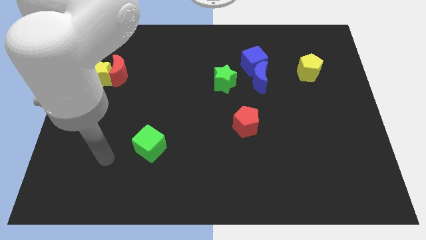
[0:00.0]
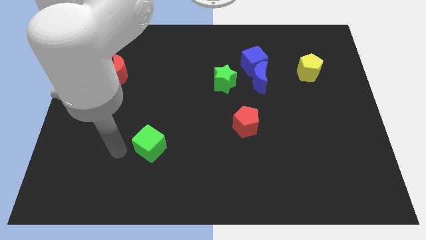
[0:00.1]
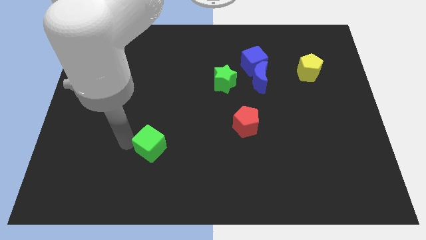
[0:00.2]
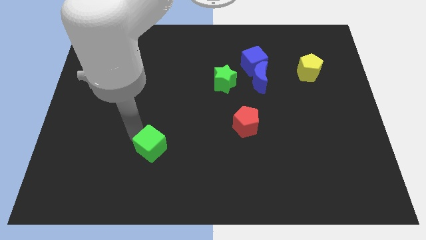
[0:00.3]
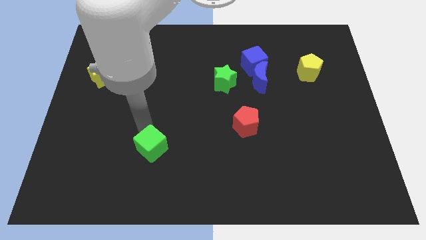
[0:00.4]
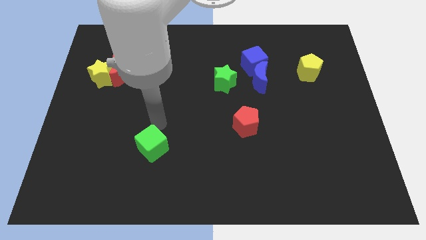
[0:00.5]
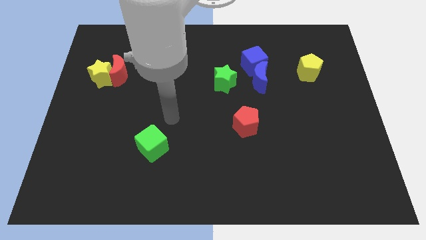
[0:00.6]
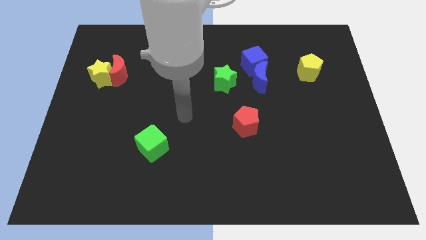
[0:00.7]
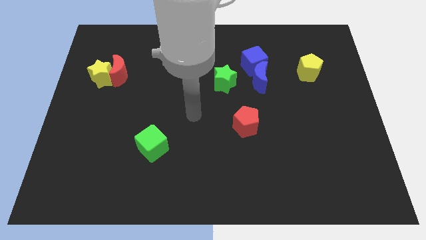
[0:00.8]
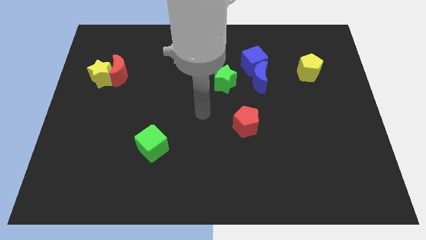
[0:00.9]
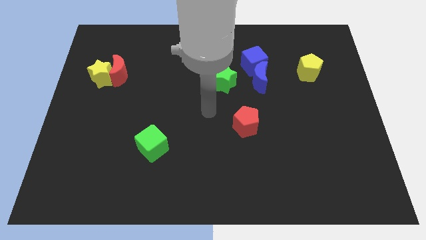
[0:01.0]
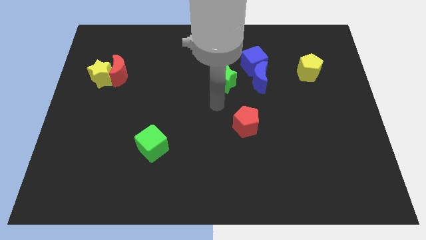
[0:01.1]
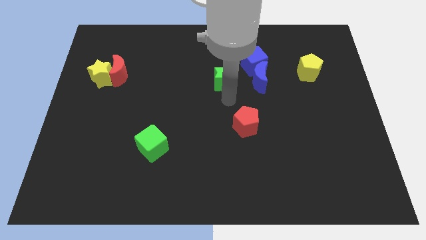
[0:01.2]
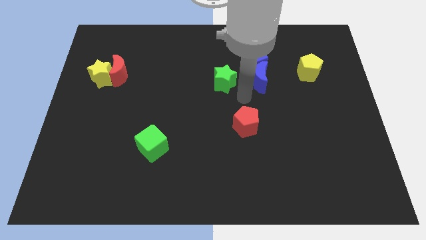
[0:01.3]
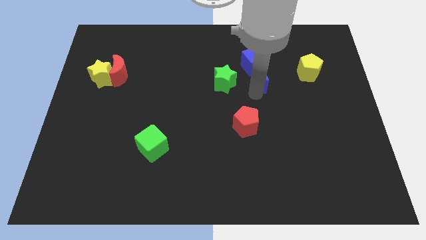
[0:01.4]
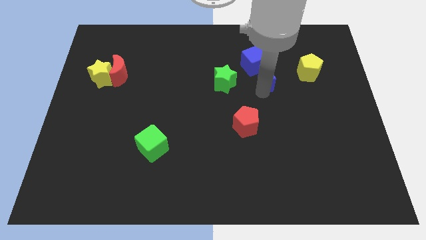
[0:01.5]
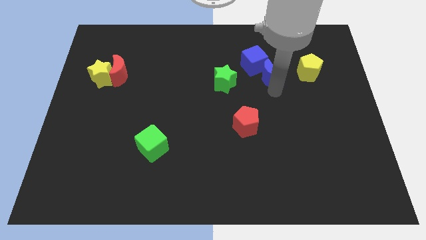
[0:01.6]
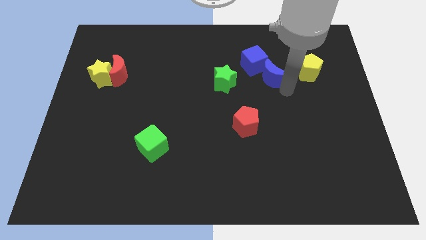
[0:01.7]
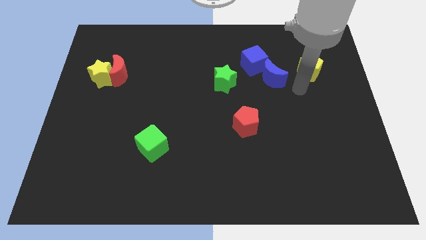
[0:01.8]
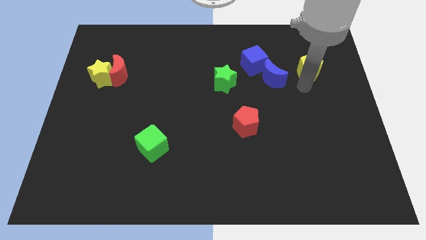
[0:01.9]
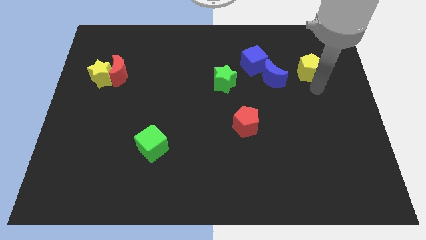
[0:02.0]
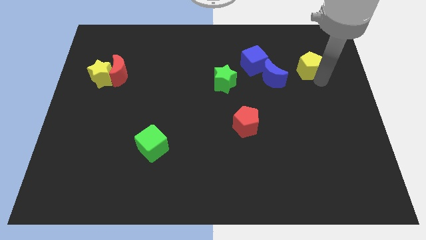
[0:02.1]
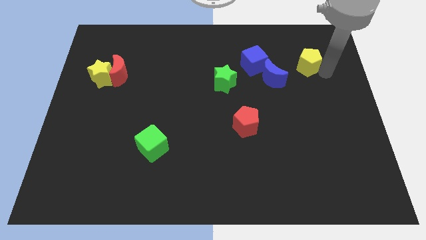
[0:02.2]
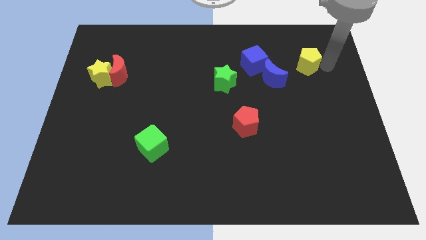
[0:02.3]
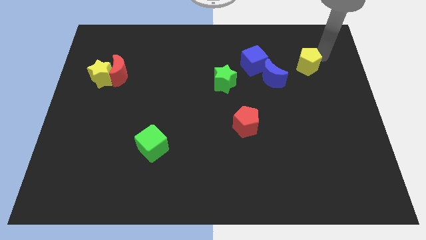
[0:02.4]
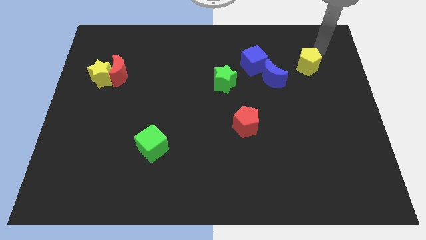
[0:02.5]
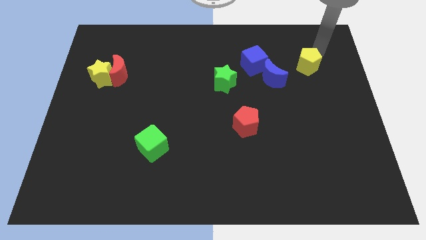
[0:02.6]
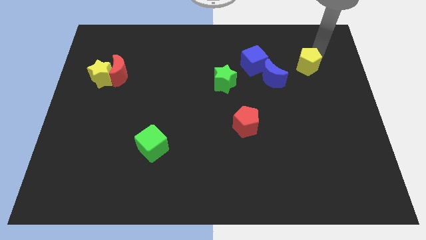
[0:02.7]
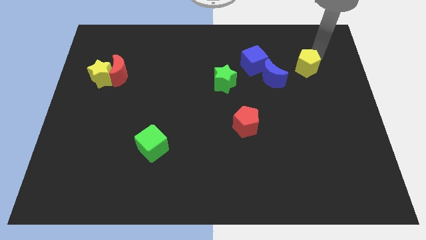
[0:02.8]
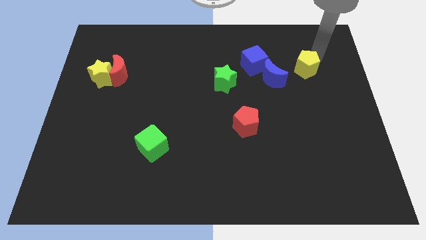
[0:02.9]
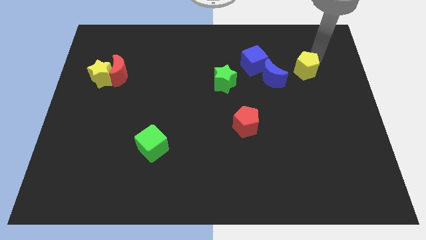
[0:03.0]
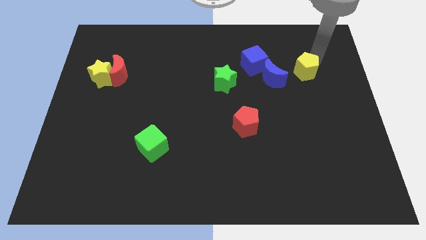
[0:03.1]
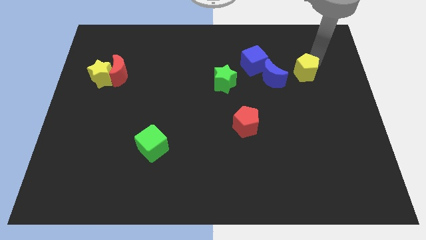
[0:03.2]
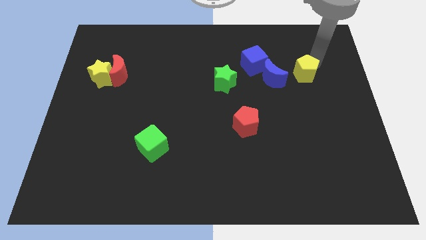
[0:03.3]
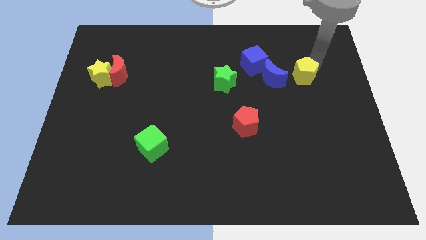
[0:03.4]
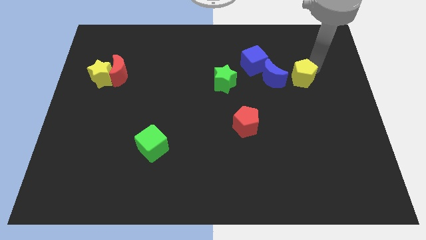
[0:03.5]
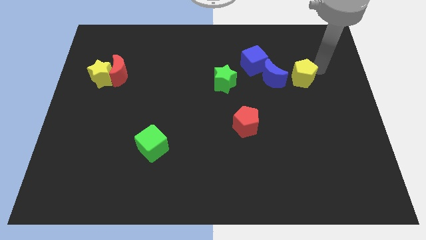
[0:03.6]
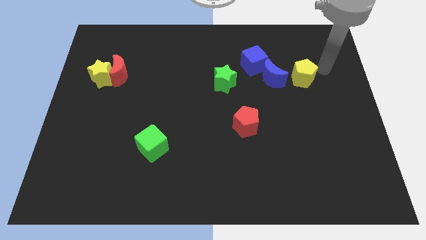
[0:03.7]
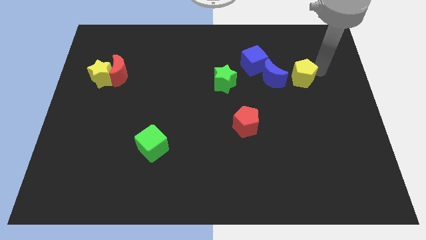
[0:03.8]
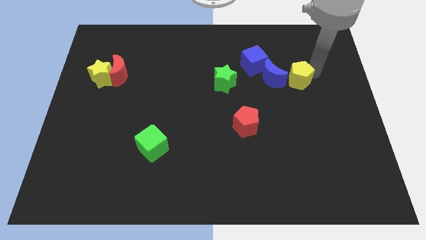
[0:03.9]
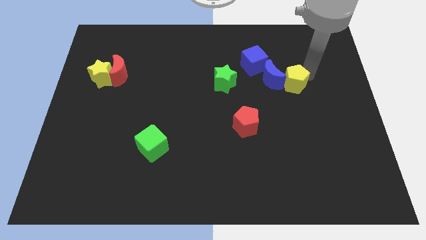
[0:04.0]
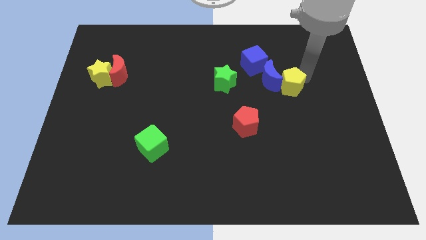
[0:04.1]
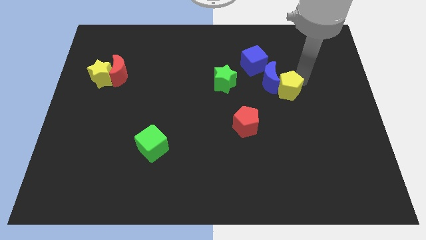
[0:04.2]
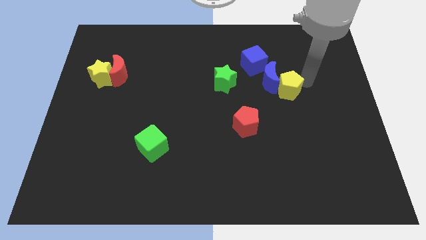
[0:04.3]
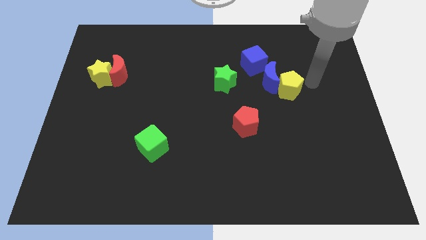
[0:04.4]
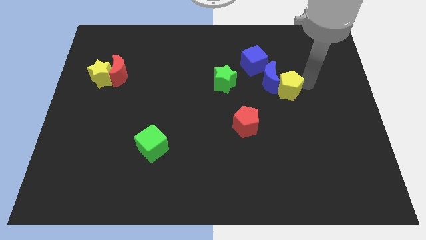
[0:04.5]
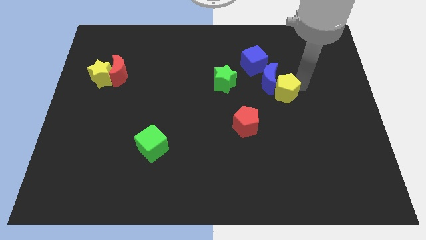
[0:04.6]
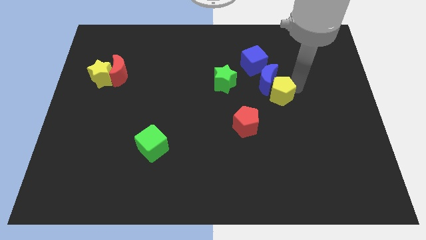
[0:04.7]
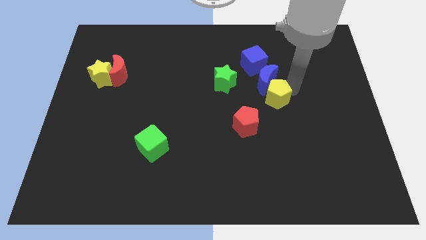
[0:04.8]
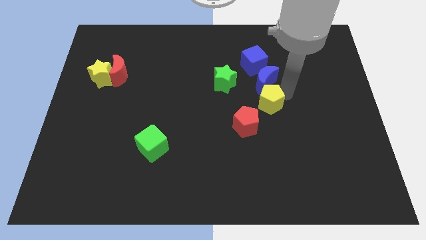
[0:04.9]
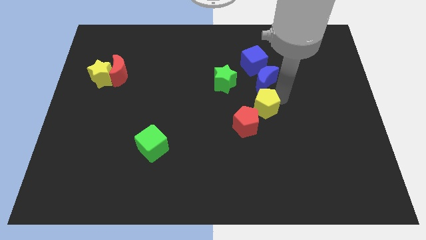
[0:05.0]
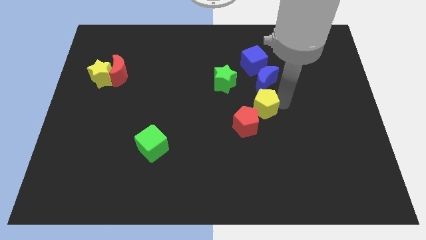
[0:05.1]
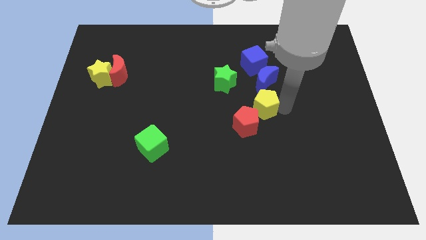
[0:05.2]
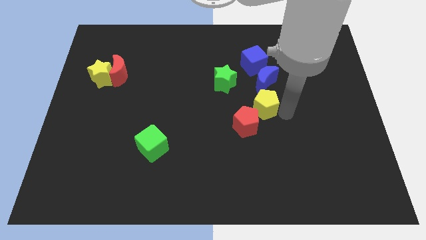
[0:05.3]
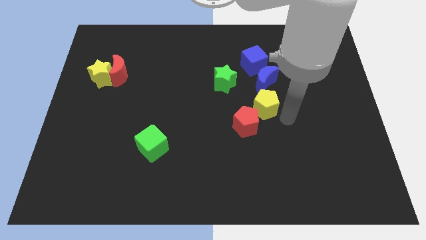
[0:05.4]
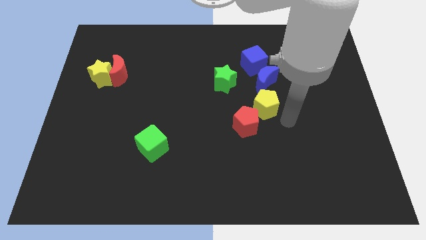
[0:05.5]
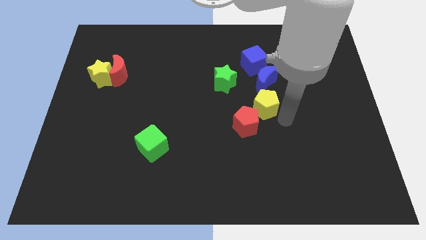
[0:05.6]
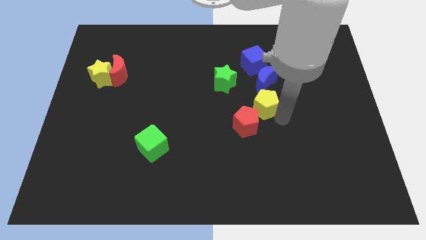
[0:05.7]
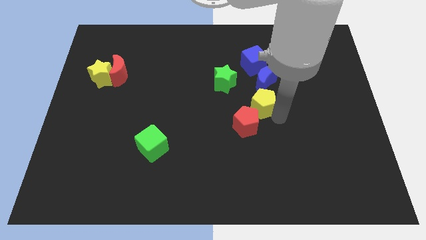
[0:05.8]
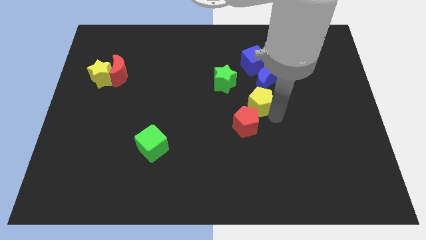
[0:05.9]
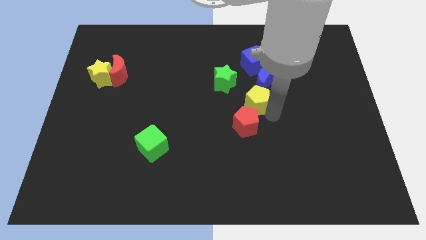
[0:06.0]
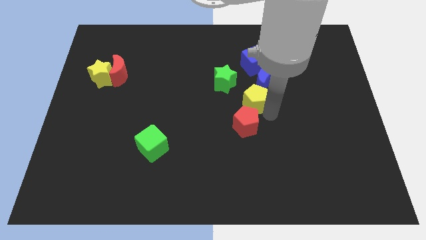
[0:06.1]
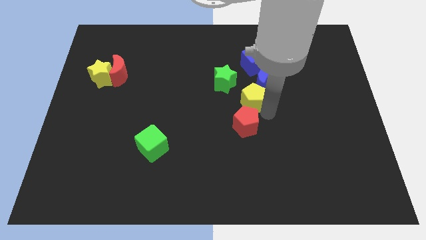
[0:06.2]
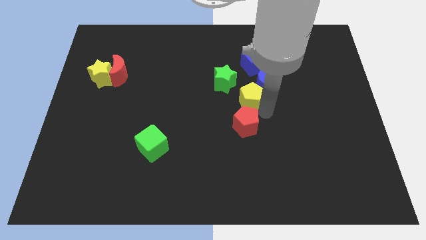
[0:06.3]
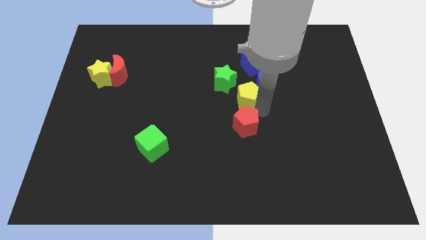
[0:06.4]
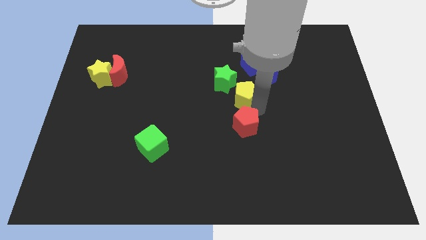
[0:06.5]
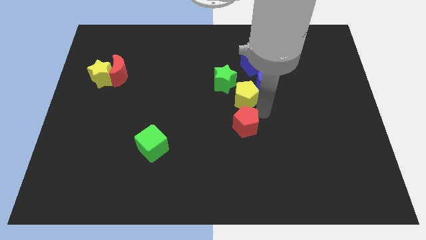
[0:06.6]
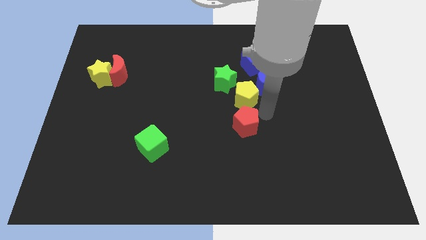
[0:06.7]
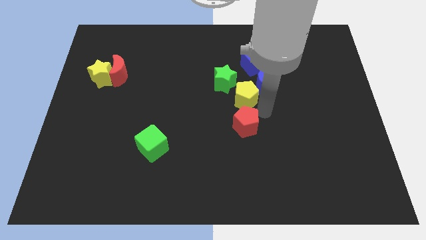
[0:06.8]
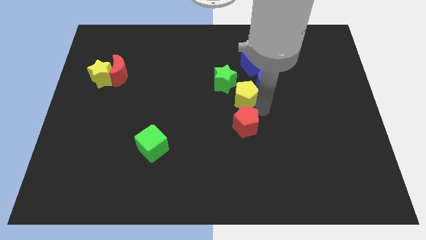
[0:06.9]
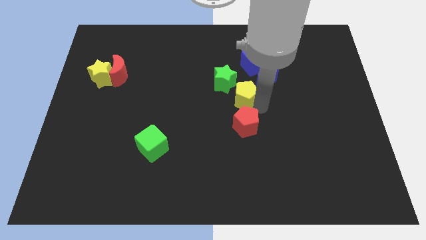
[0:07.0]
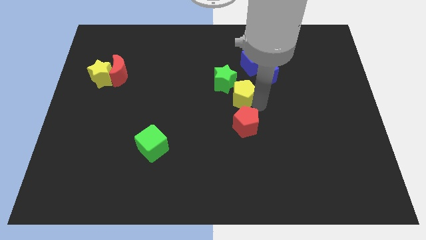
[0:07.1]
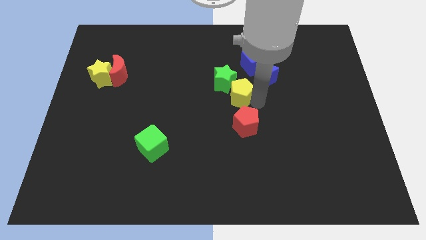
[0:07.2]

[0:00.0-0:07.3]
push the yellow pentagon to the green star
